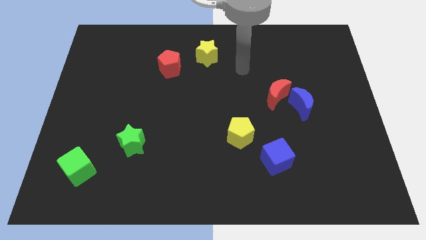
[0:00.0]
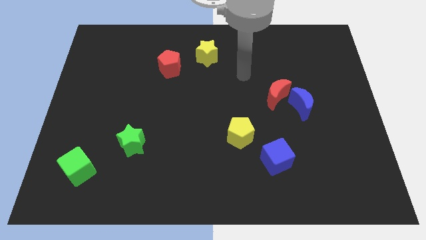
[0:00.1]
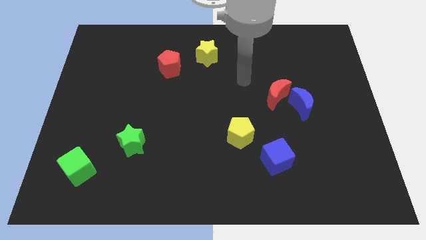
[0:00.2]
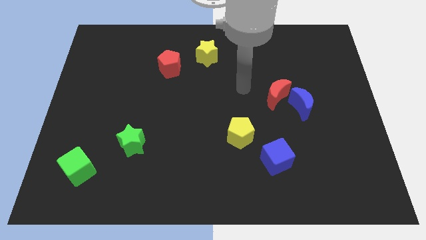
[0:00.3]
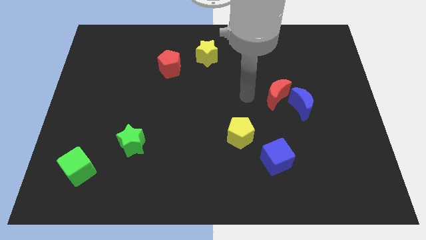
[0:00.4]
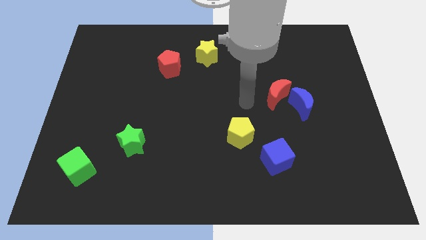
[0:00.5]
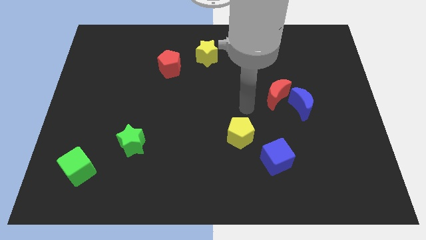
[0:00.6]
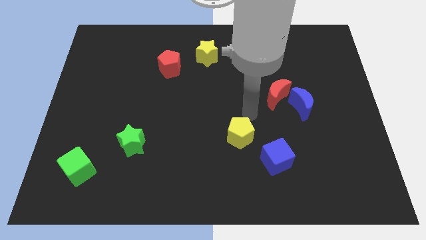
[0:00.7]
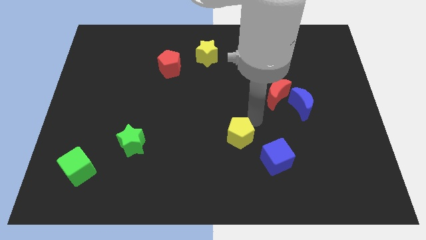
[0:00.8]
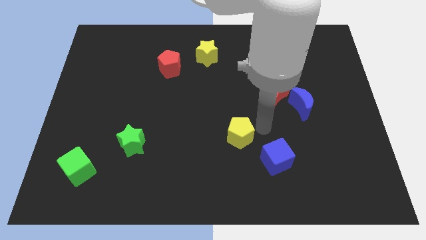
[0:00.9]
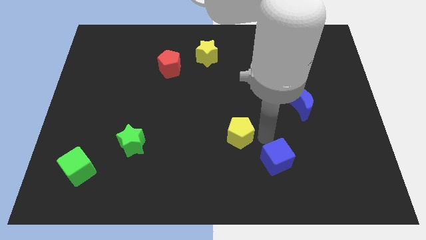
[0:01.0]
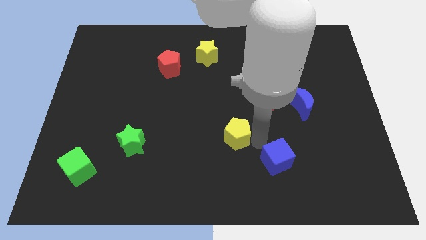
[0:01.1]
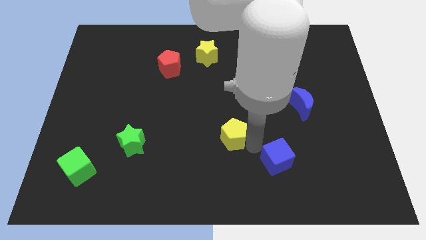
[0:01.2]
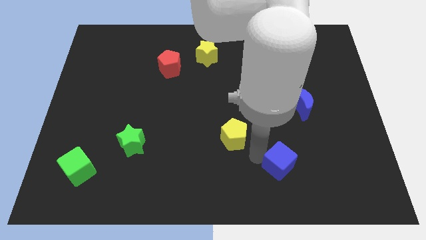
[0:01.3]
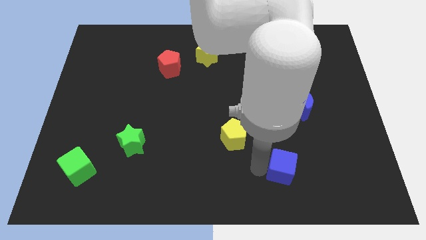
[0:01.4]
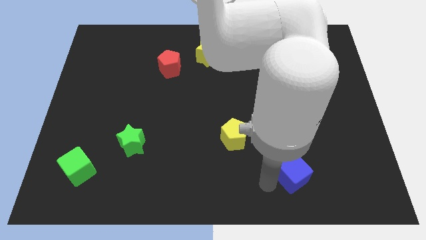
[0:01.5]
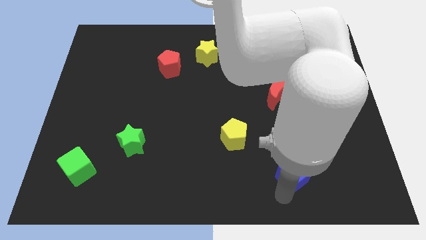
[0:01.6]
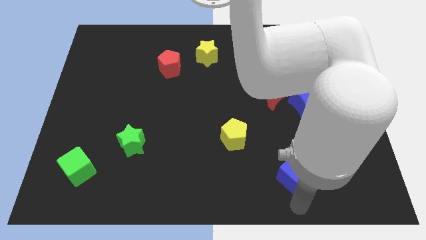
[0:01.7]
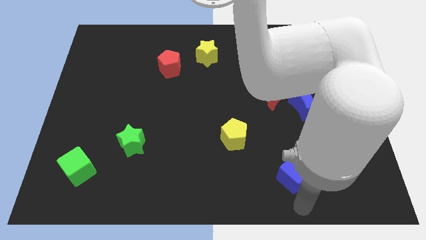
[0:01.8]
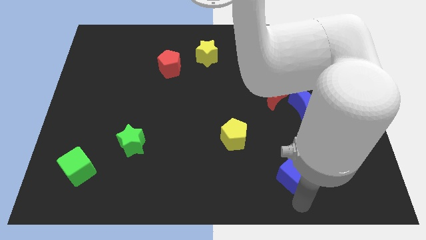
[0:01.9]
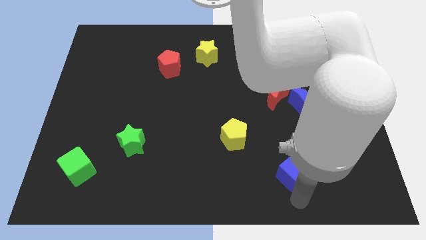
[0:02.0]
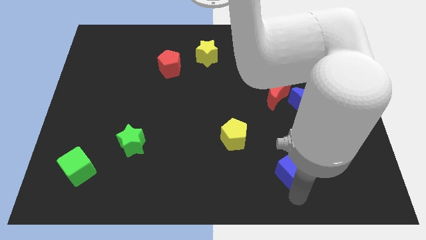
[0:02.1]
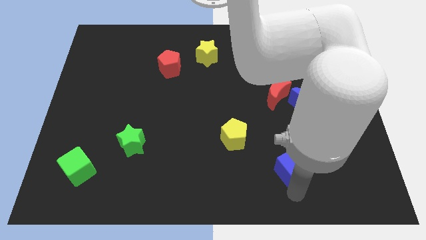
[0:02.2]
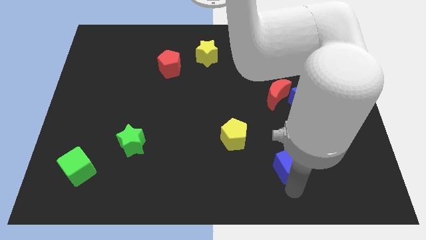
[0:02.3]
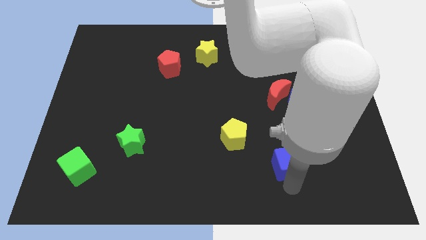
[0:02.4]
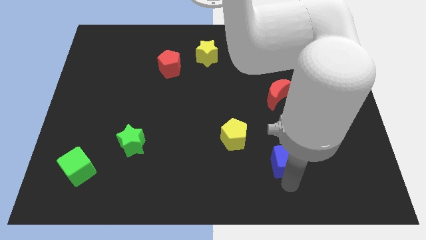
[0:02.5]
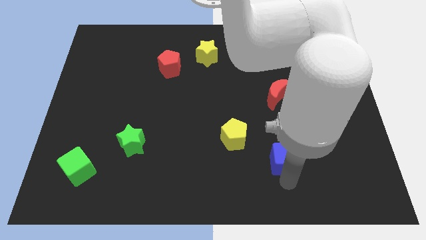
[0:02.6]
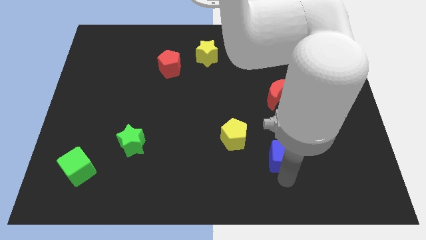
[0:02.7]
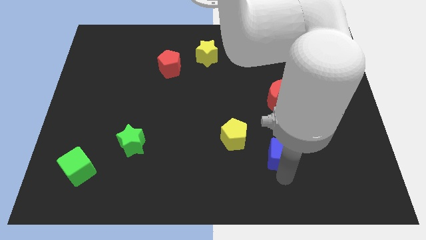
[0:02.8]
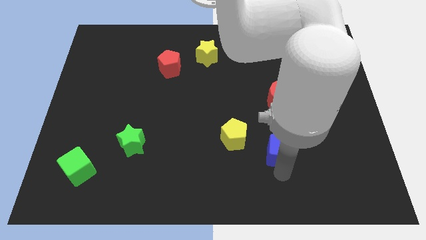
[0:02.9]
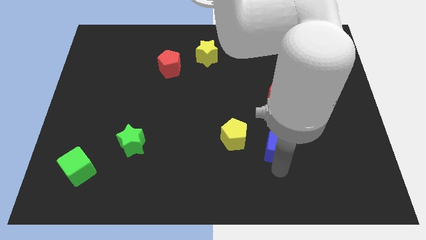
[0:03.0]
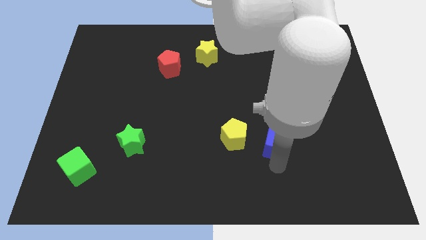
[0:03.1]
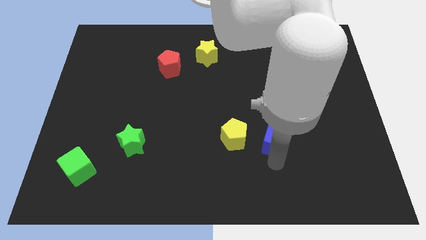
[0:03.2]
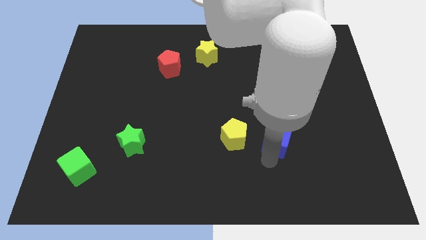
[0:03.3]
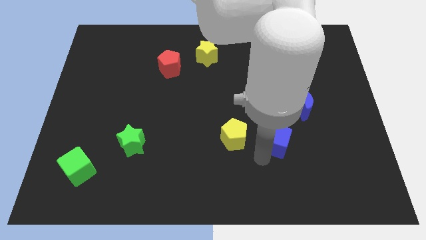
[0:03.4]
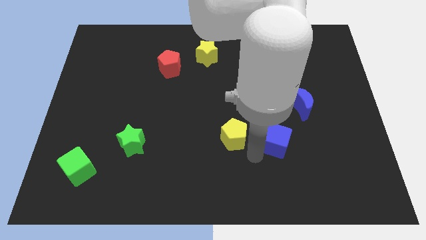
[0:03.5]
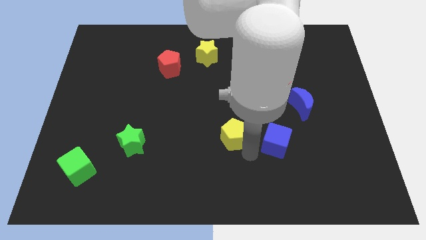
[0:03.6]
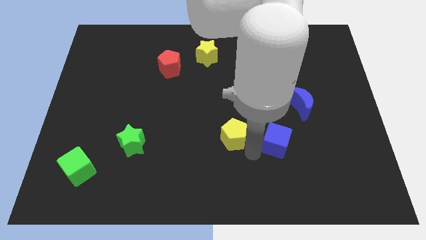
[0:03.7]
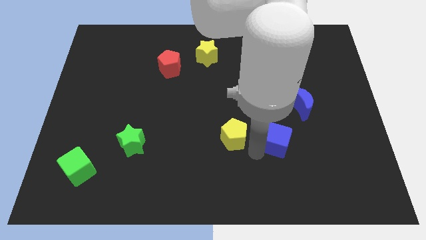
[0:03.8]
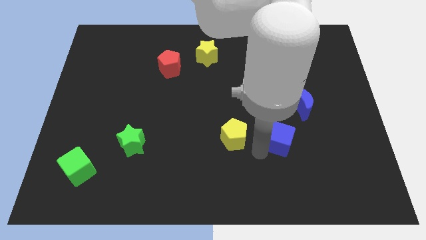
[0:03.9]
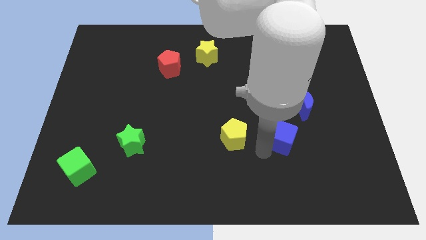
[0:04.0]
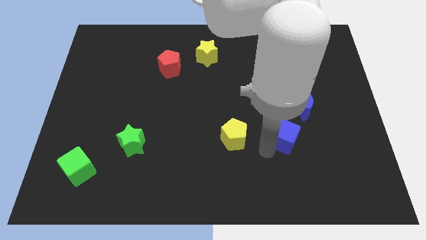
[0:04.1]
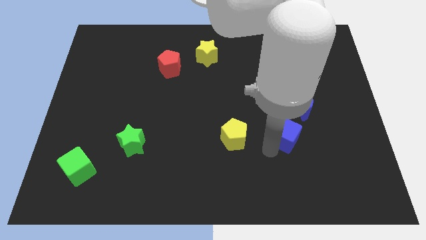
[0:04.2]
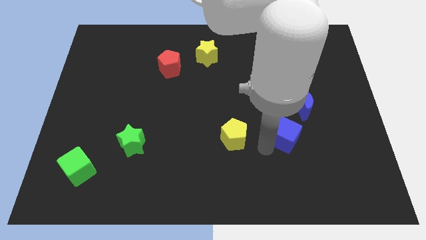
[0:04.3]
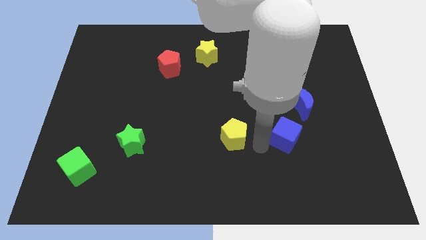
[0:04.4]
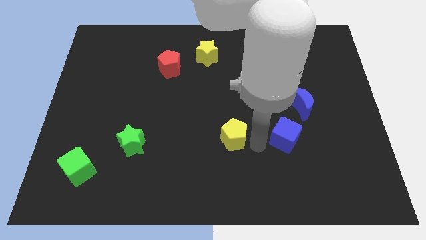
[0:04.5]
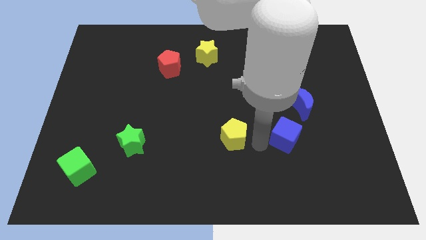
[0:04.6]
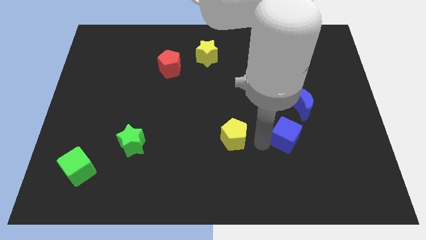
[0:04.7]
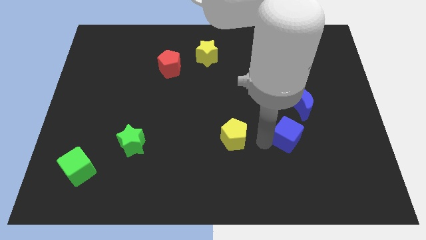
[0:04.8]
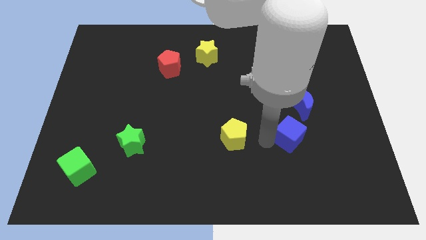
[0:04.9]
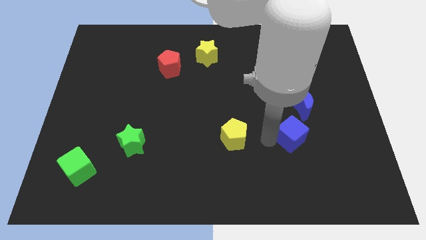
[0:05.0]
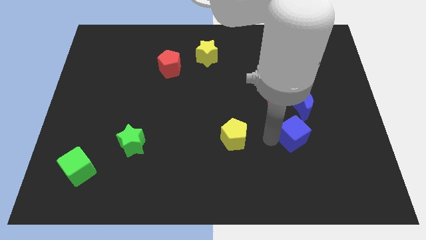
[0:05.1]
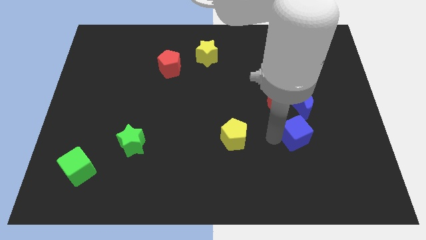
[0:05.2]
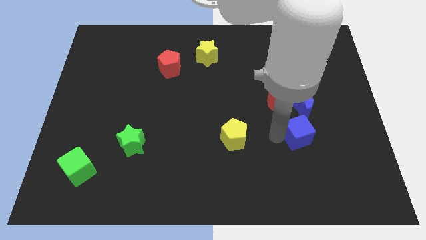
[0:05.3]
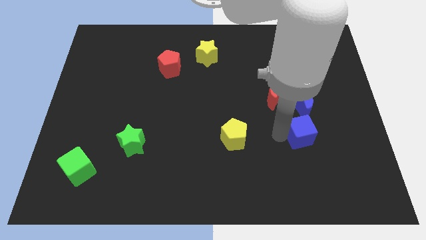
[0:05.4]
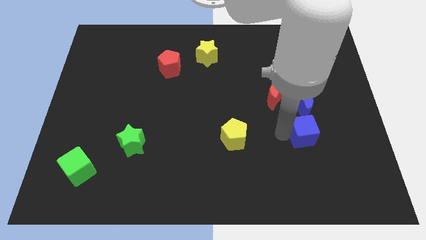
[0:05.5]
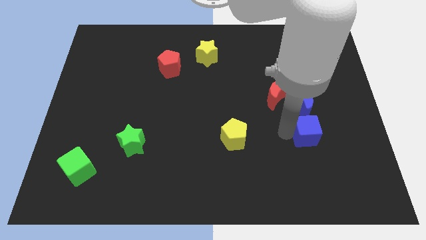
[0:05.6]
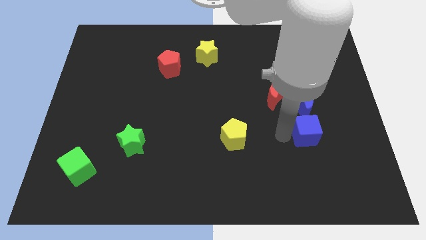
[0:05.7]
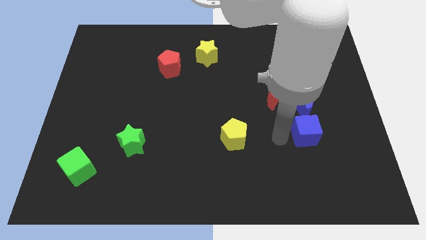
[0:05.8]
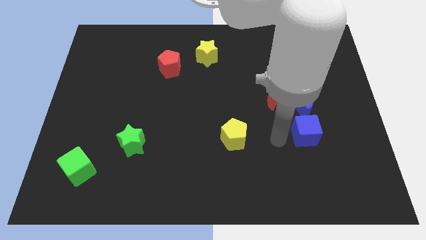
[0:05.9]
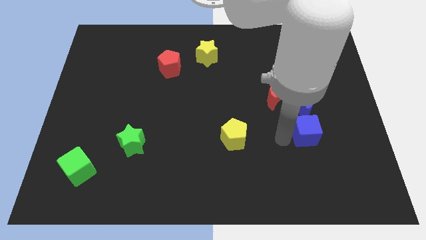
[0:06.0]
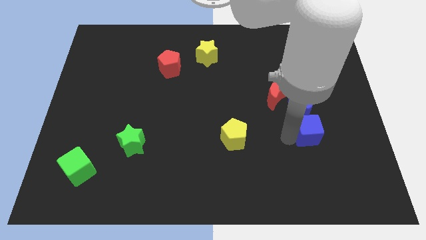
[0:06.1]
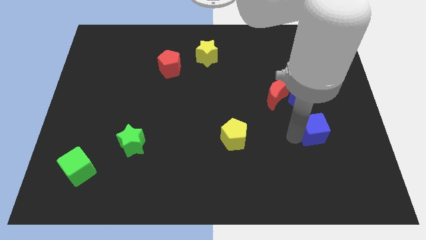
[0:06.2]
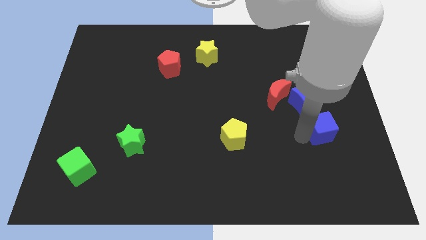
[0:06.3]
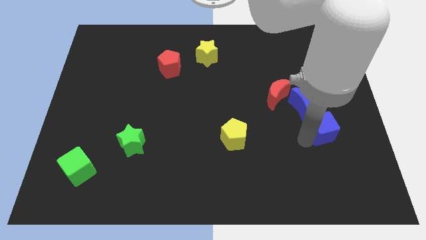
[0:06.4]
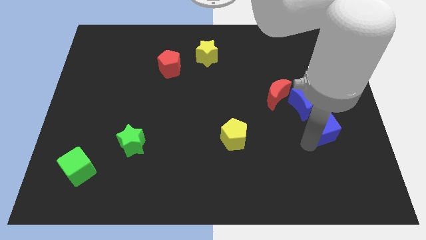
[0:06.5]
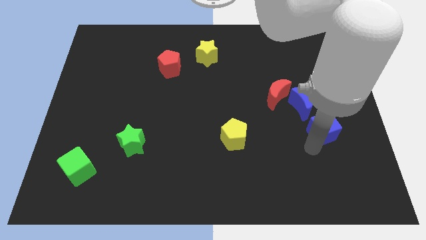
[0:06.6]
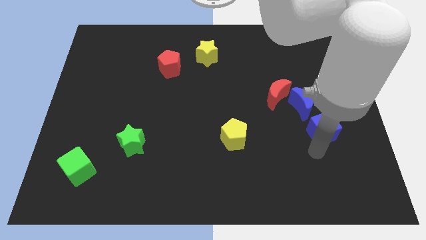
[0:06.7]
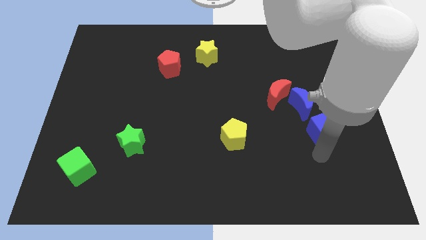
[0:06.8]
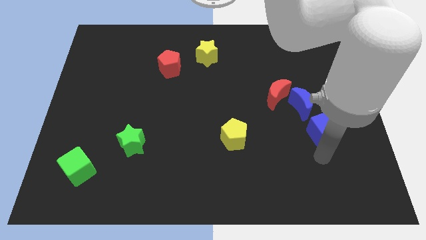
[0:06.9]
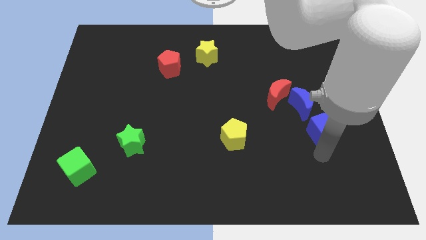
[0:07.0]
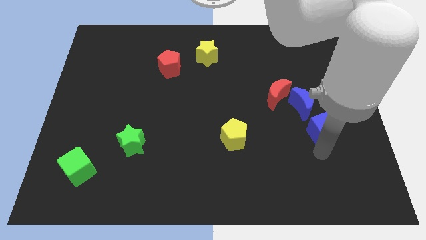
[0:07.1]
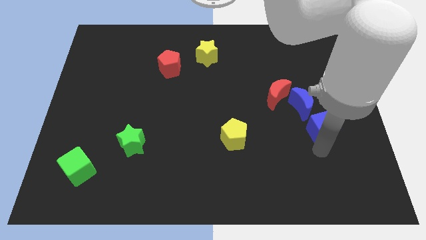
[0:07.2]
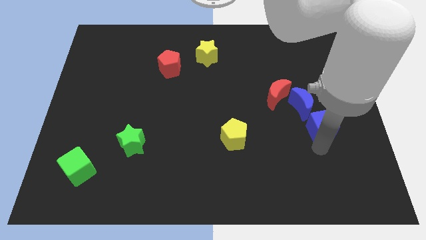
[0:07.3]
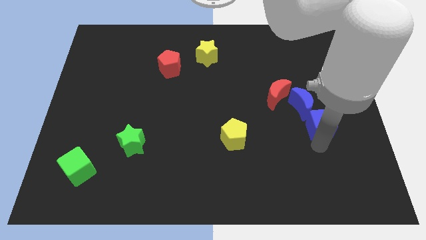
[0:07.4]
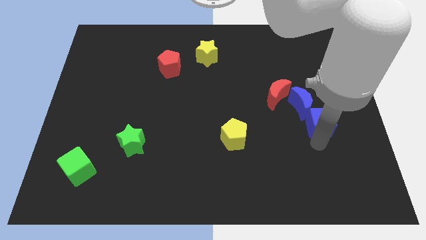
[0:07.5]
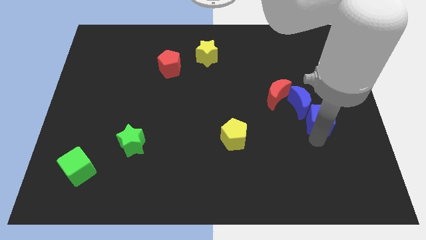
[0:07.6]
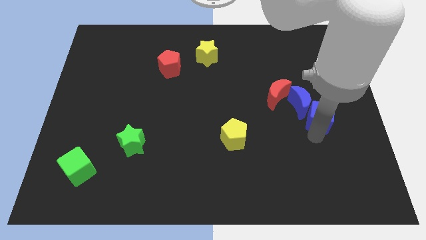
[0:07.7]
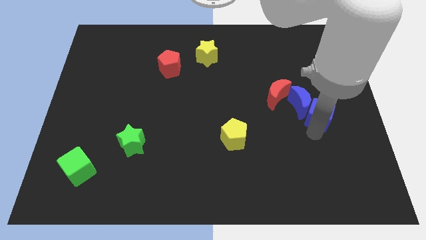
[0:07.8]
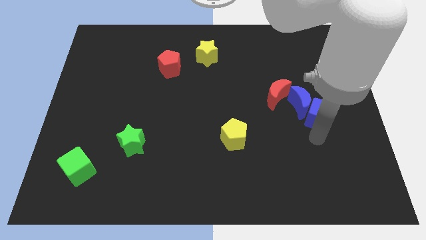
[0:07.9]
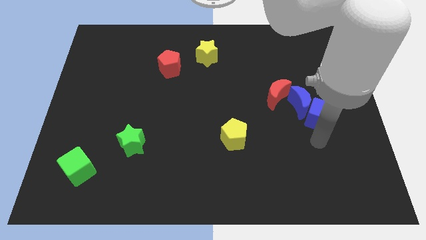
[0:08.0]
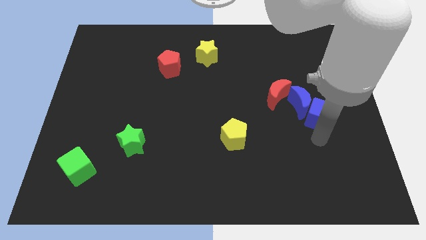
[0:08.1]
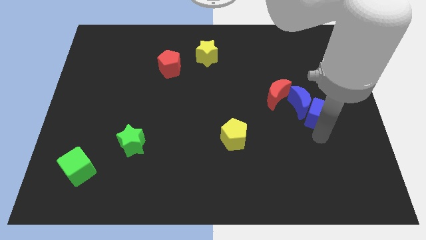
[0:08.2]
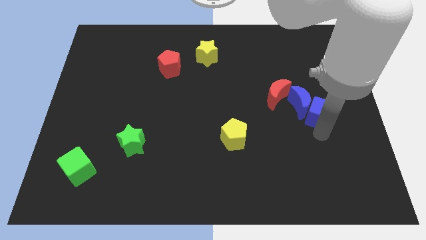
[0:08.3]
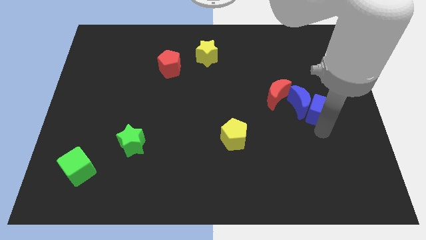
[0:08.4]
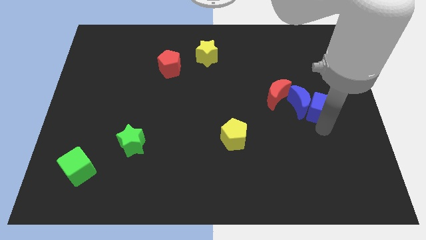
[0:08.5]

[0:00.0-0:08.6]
put the blue cube to the right of the red moon
